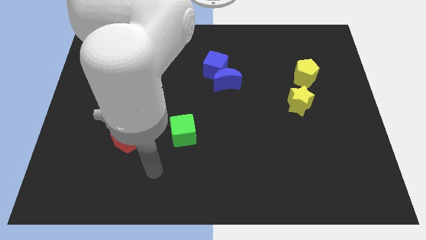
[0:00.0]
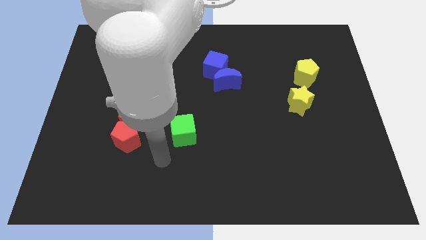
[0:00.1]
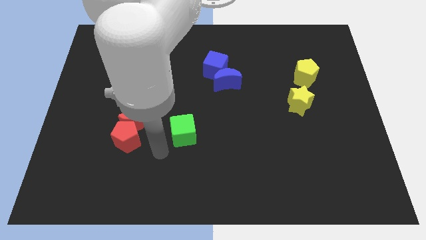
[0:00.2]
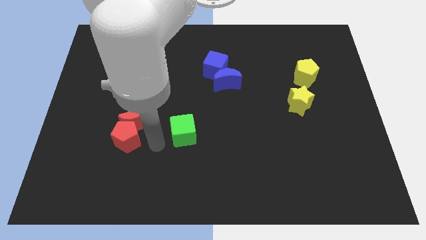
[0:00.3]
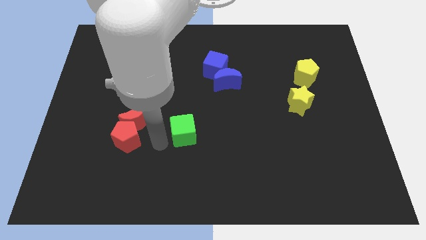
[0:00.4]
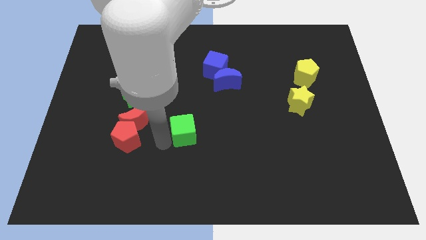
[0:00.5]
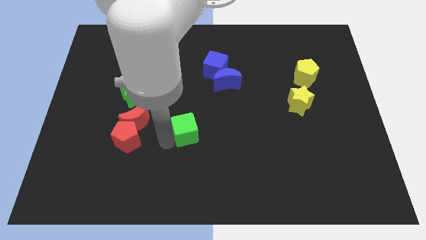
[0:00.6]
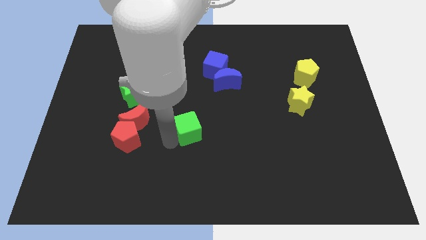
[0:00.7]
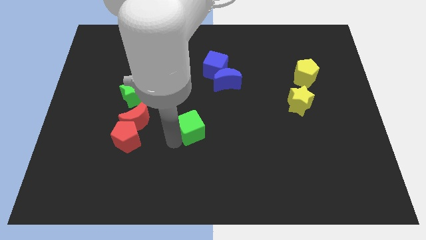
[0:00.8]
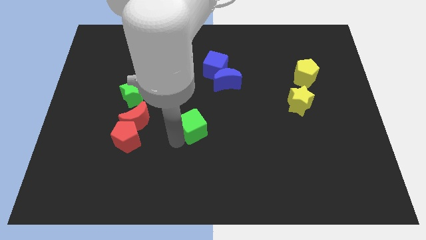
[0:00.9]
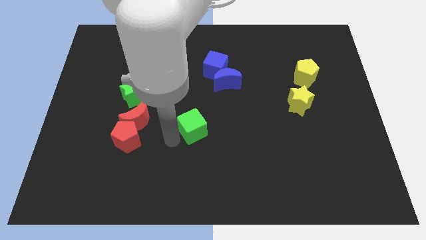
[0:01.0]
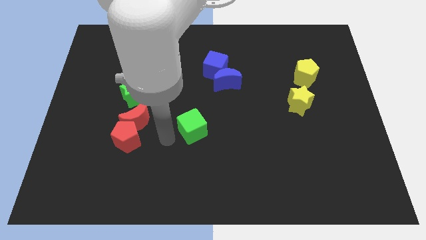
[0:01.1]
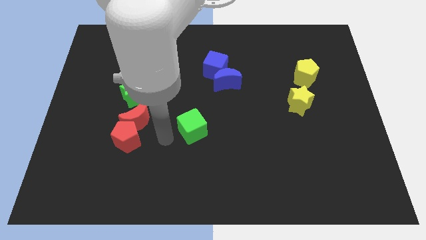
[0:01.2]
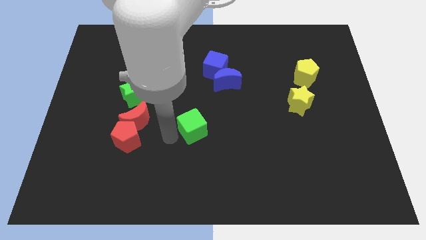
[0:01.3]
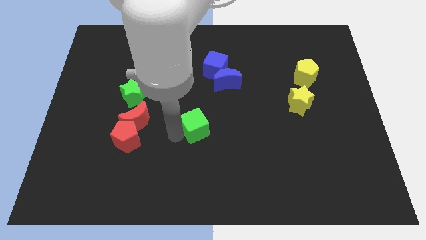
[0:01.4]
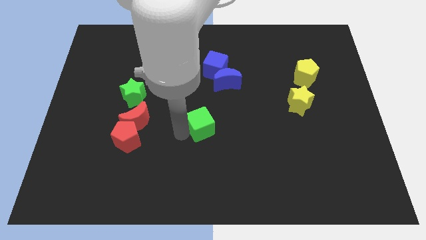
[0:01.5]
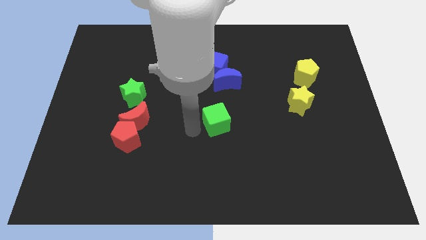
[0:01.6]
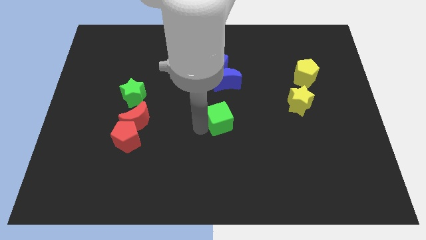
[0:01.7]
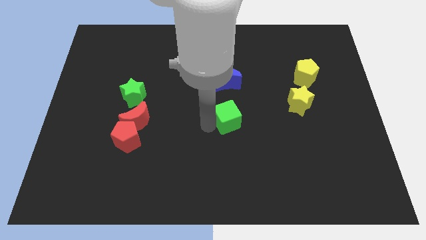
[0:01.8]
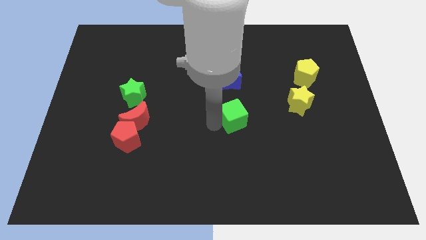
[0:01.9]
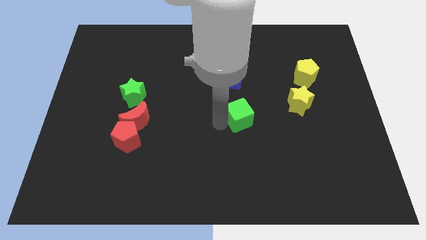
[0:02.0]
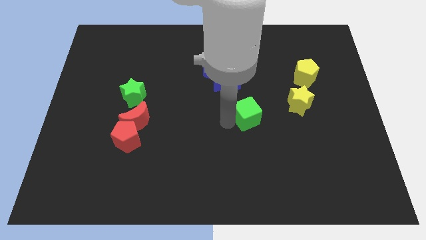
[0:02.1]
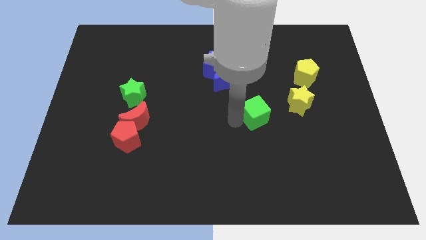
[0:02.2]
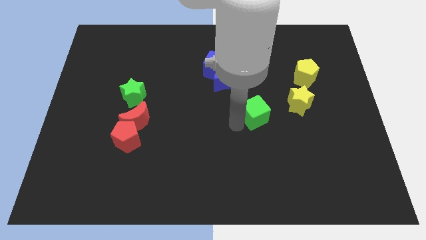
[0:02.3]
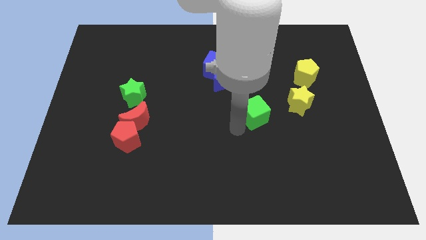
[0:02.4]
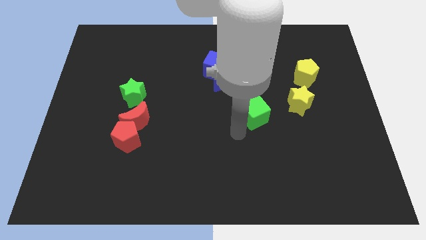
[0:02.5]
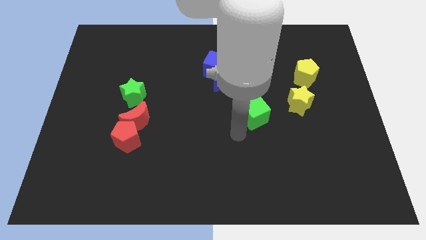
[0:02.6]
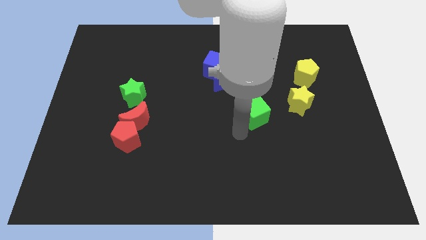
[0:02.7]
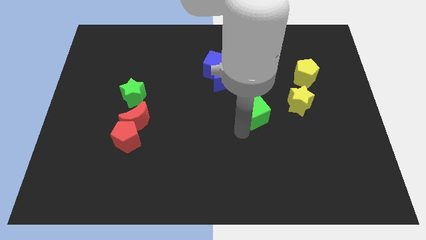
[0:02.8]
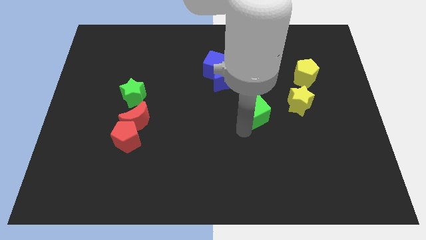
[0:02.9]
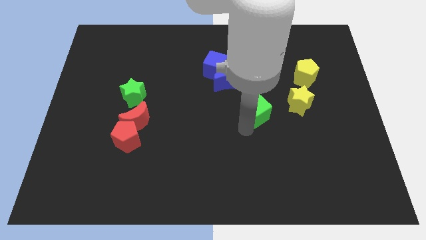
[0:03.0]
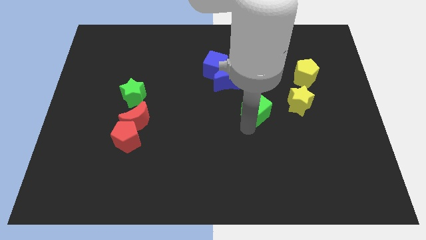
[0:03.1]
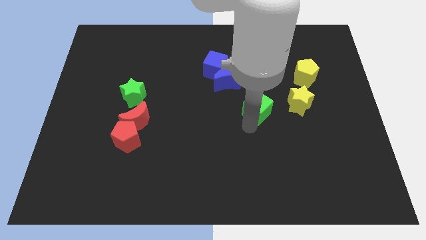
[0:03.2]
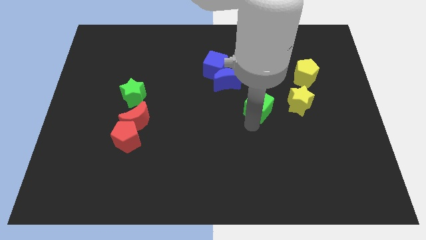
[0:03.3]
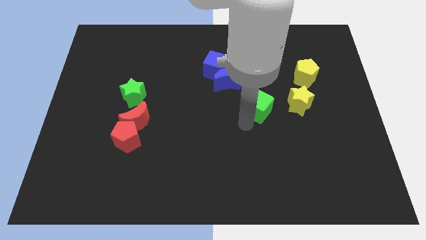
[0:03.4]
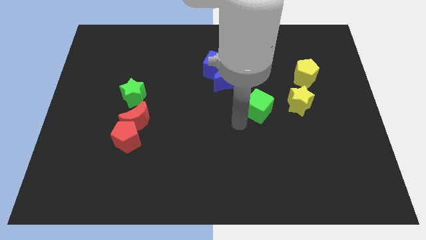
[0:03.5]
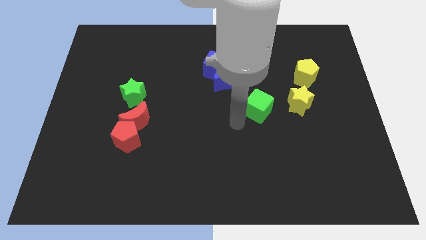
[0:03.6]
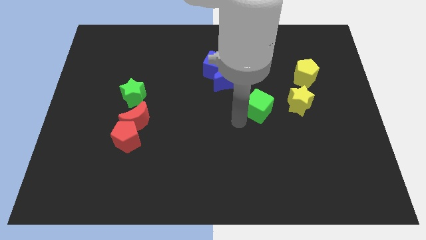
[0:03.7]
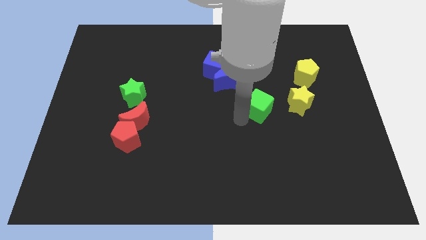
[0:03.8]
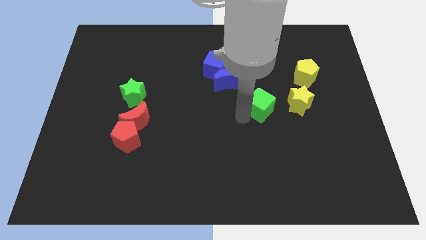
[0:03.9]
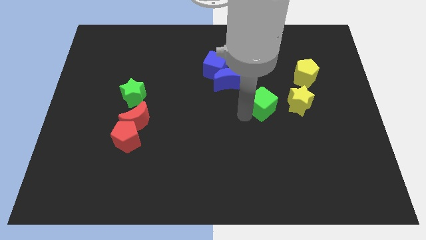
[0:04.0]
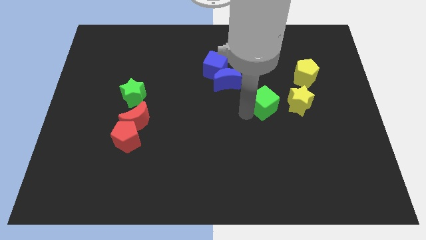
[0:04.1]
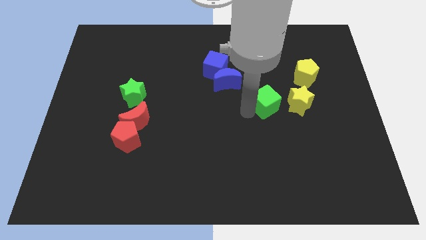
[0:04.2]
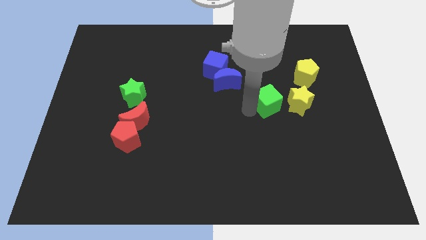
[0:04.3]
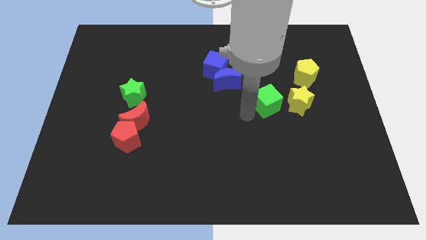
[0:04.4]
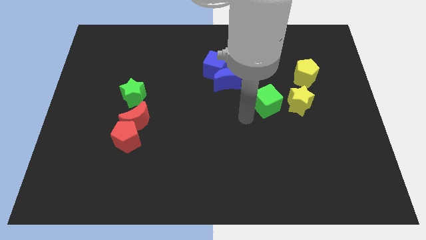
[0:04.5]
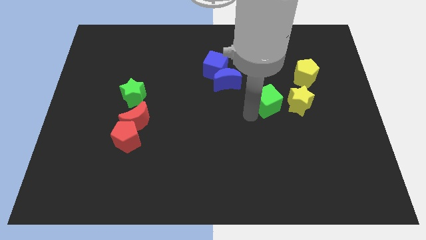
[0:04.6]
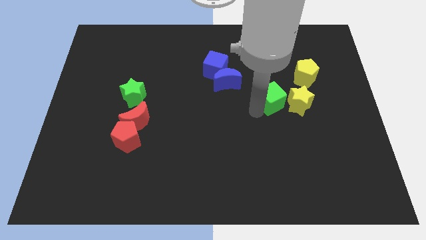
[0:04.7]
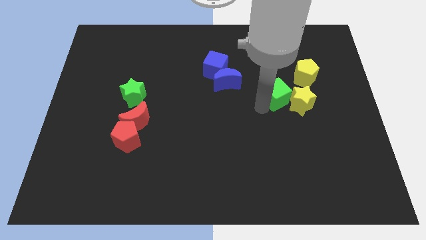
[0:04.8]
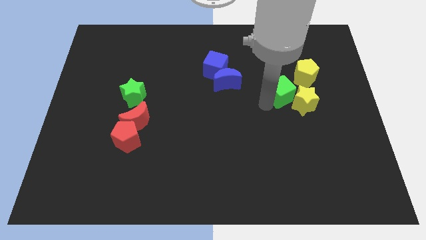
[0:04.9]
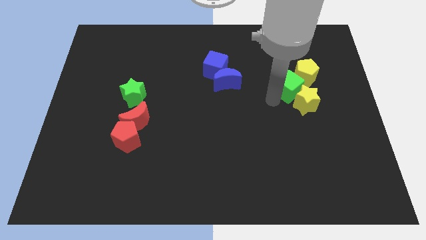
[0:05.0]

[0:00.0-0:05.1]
push the green cube to the yellow pentagon

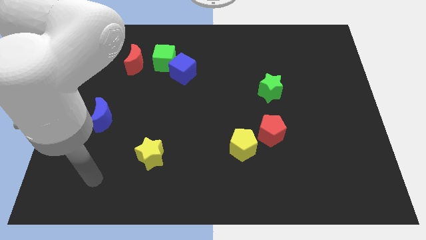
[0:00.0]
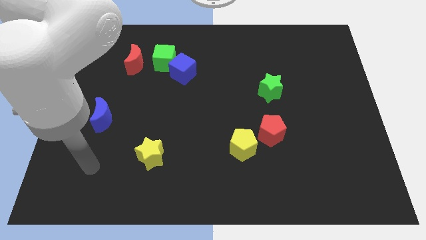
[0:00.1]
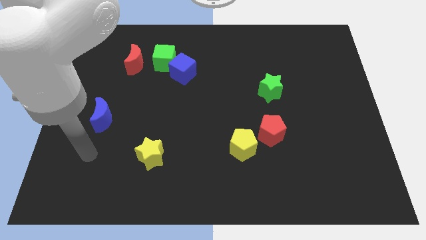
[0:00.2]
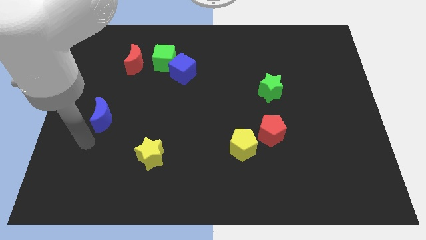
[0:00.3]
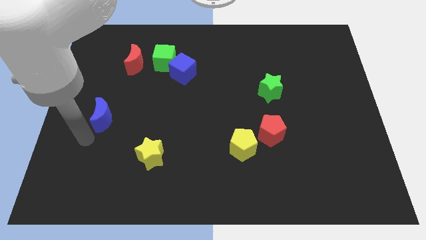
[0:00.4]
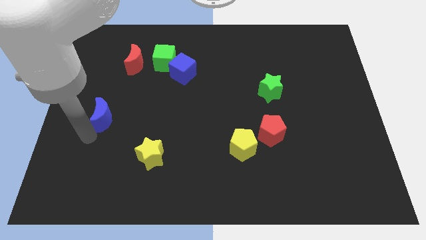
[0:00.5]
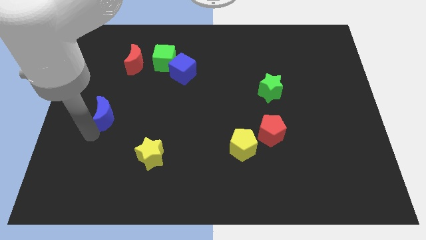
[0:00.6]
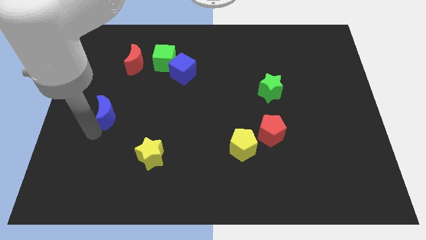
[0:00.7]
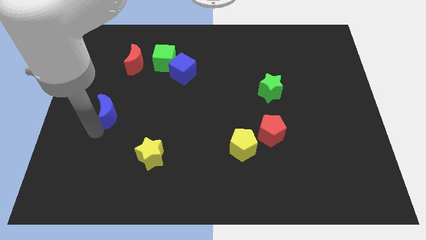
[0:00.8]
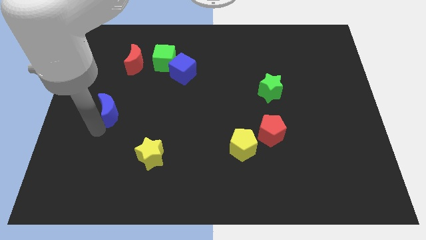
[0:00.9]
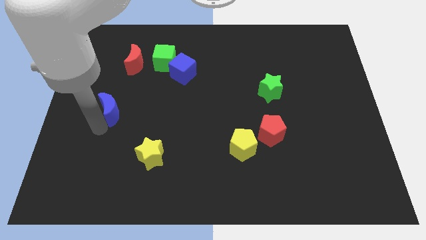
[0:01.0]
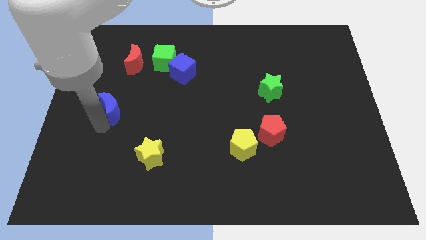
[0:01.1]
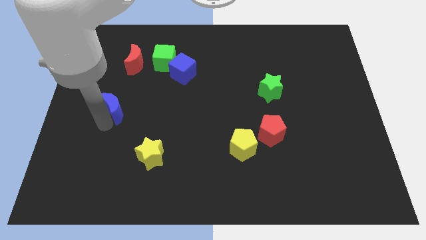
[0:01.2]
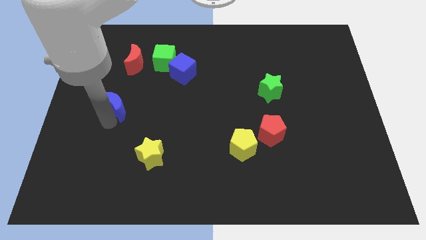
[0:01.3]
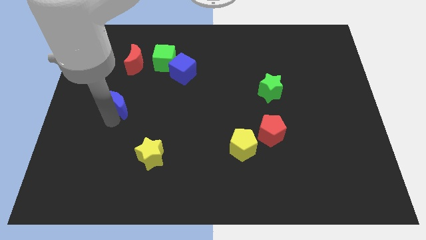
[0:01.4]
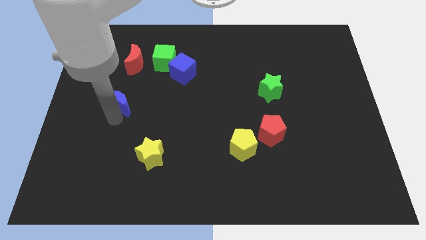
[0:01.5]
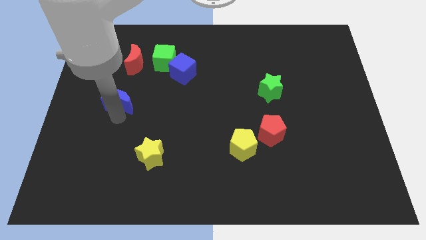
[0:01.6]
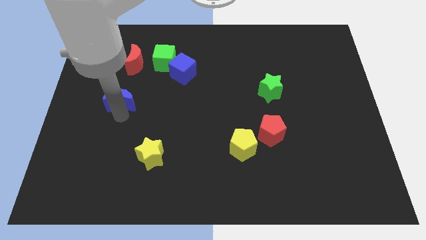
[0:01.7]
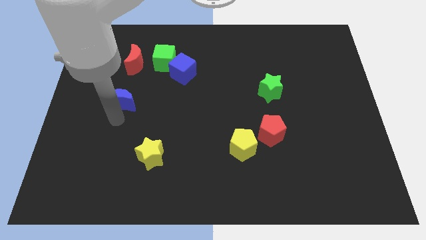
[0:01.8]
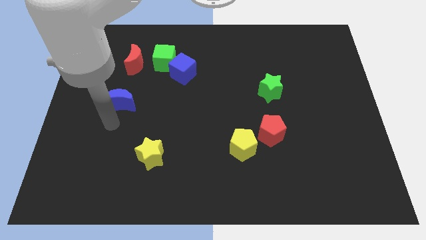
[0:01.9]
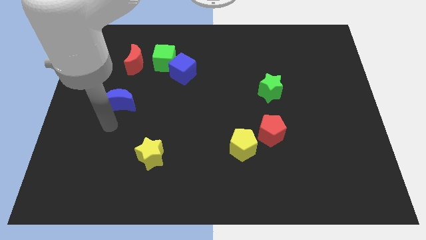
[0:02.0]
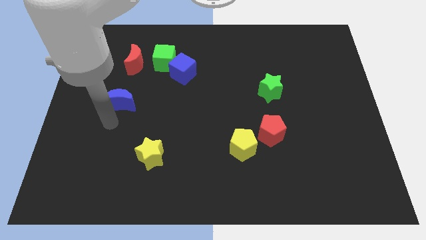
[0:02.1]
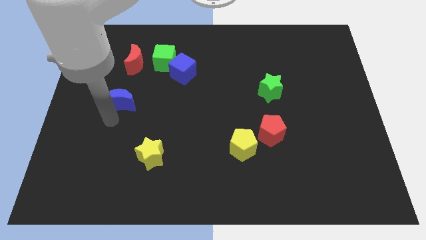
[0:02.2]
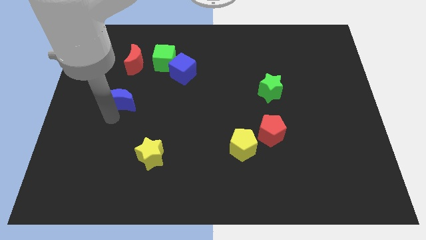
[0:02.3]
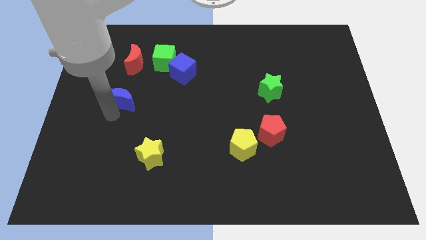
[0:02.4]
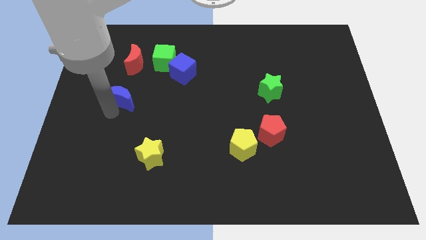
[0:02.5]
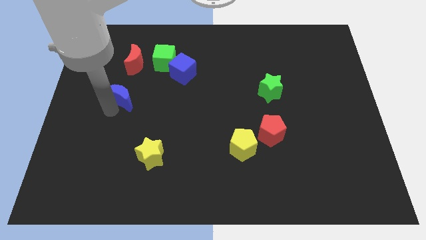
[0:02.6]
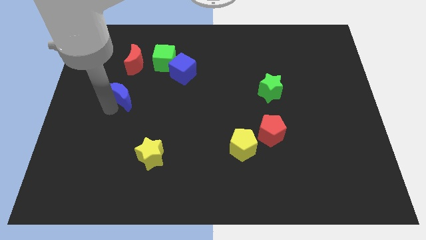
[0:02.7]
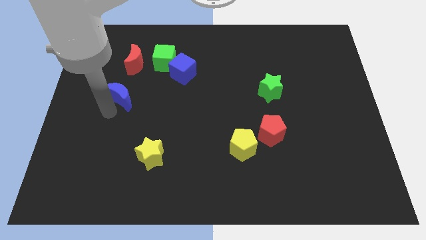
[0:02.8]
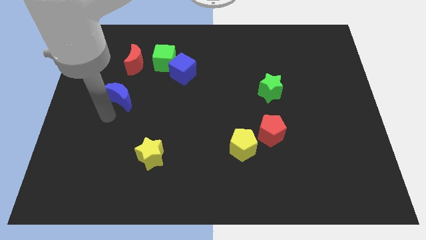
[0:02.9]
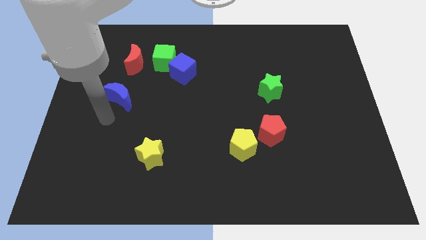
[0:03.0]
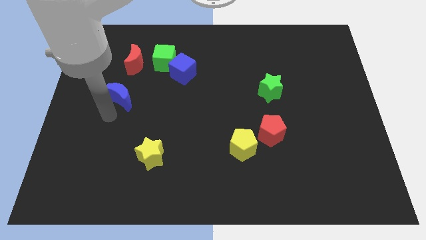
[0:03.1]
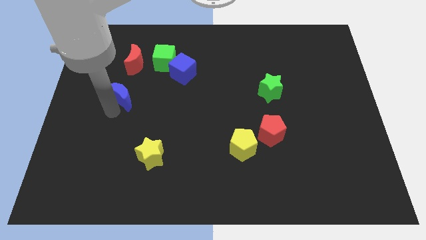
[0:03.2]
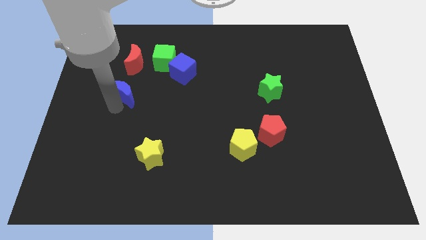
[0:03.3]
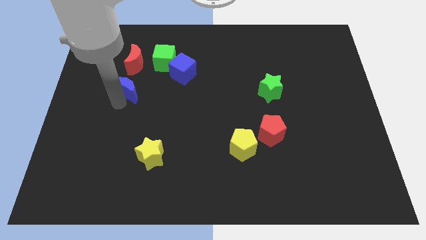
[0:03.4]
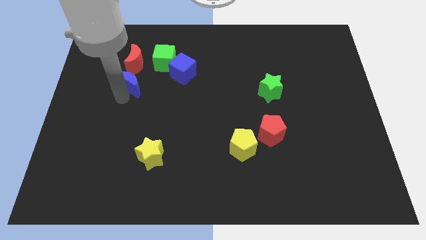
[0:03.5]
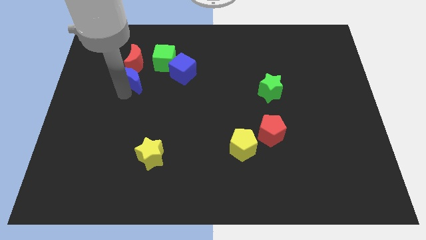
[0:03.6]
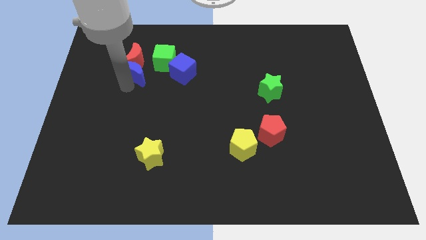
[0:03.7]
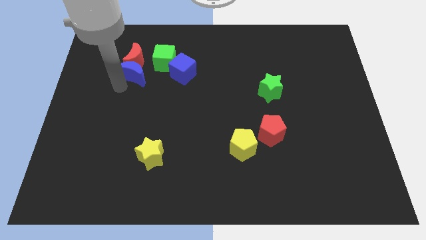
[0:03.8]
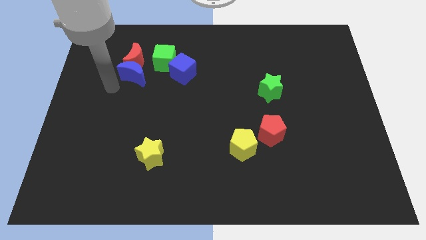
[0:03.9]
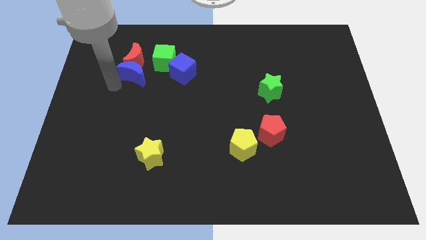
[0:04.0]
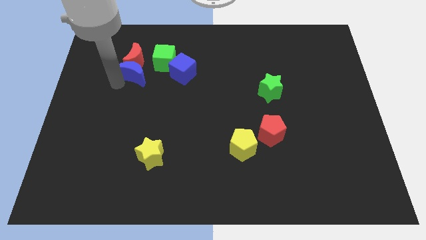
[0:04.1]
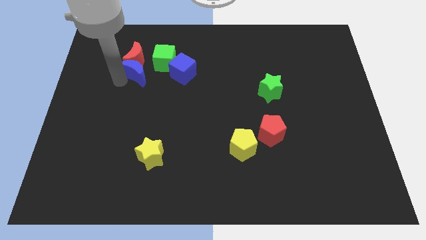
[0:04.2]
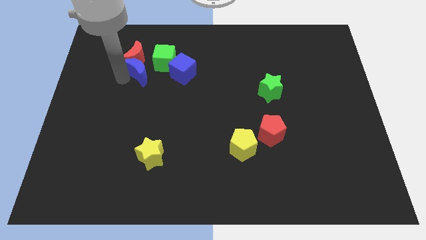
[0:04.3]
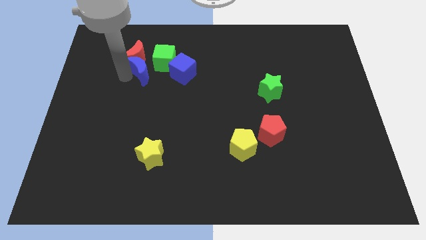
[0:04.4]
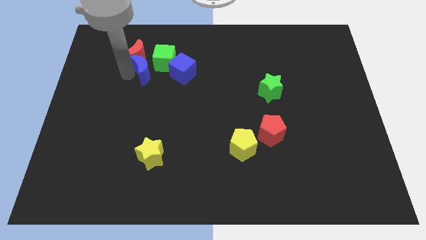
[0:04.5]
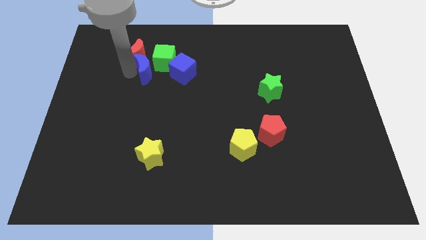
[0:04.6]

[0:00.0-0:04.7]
slide the blue moon to the green cube
